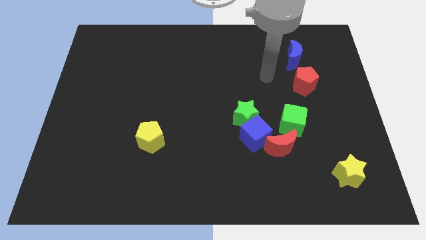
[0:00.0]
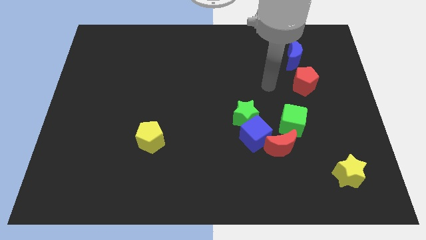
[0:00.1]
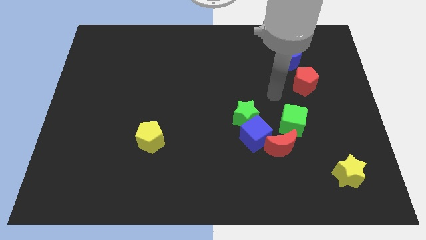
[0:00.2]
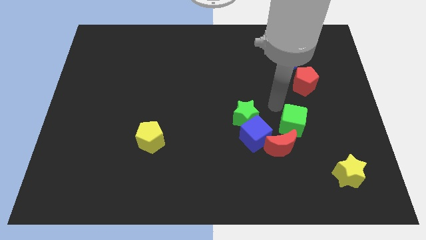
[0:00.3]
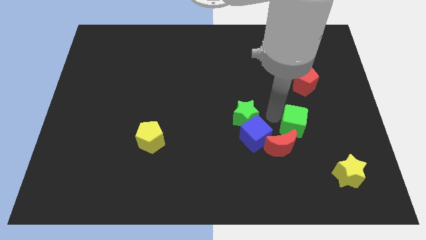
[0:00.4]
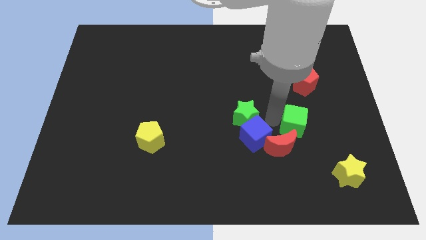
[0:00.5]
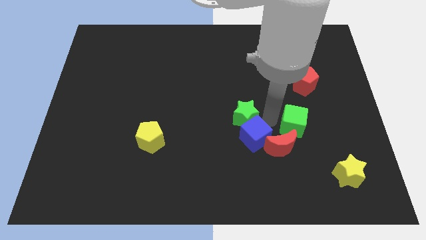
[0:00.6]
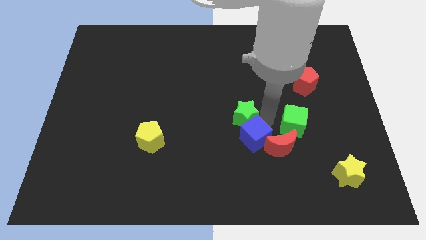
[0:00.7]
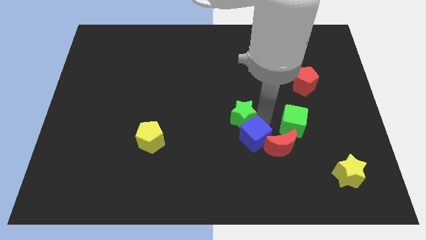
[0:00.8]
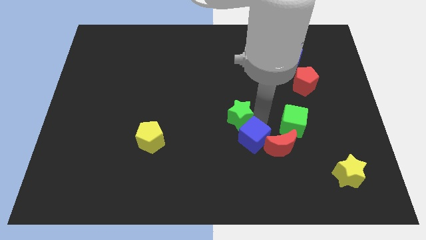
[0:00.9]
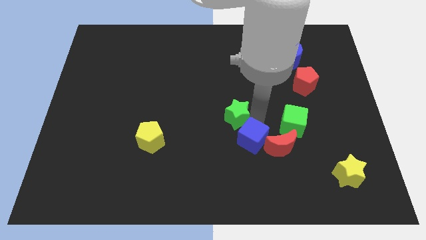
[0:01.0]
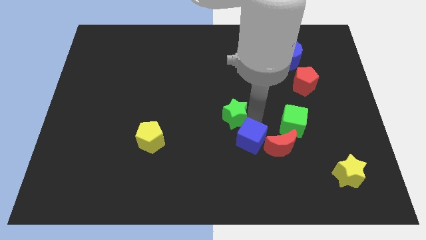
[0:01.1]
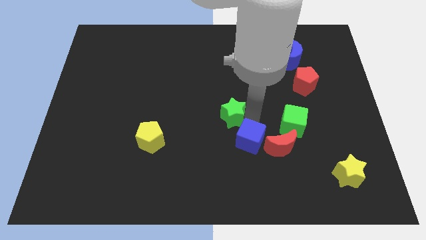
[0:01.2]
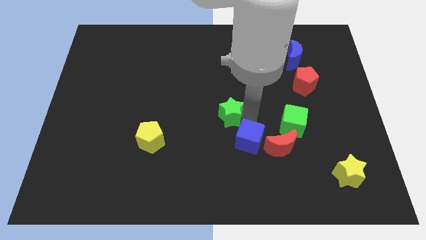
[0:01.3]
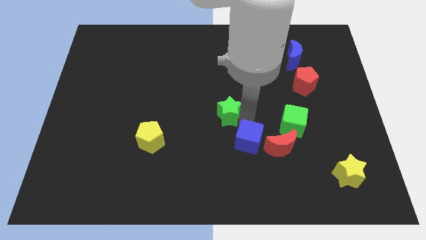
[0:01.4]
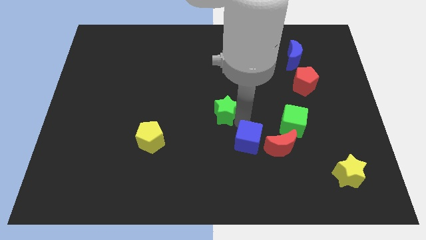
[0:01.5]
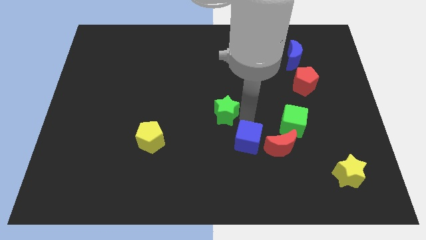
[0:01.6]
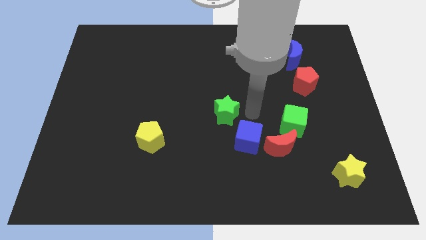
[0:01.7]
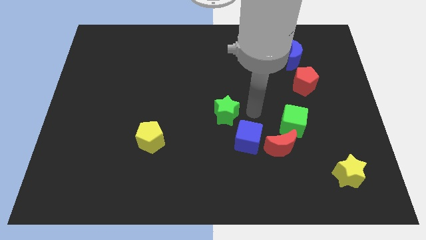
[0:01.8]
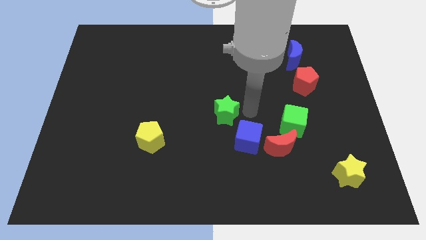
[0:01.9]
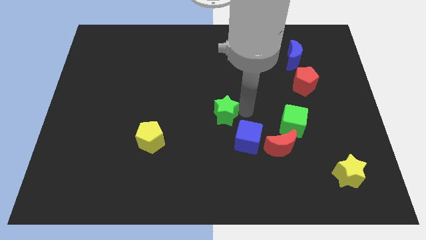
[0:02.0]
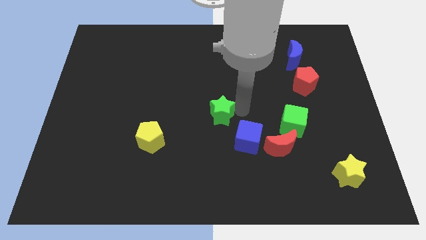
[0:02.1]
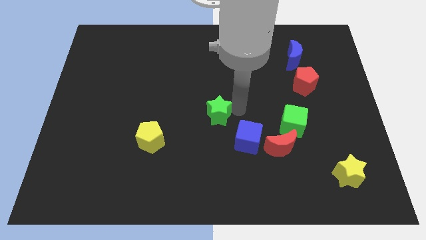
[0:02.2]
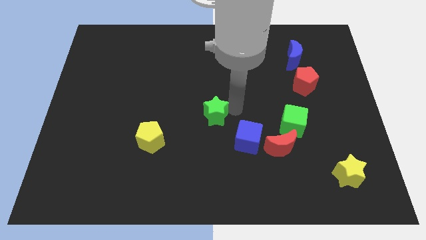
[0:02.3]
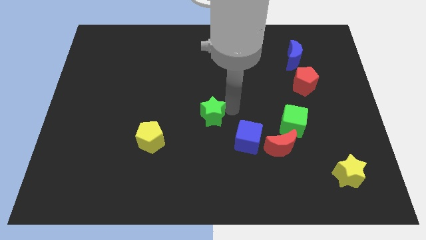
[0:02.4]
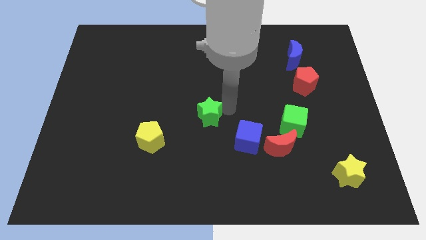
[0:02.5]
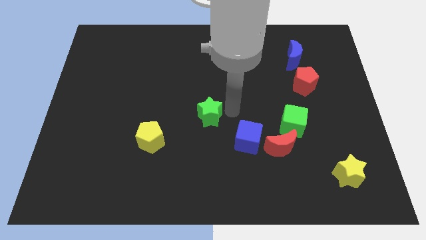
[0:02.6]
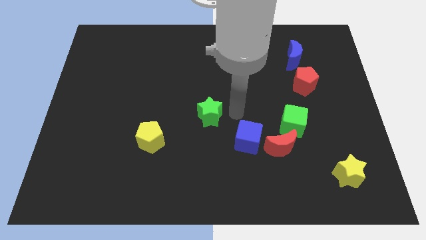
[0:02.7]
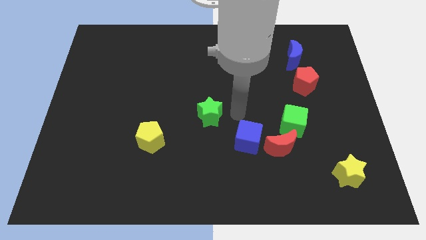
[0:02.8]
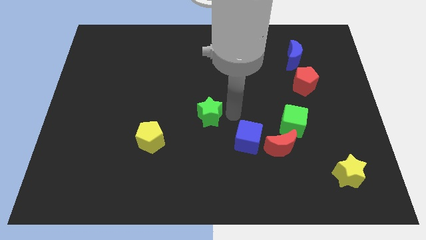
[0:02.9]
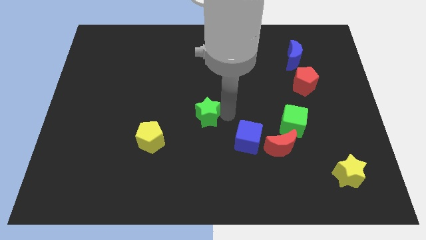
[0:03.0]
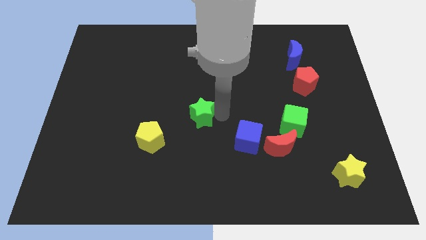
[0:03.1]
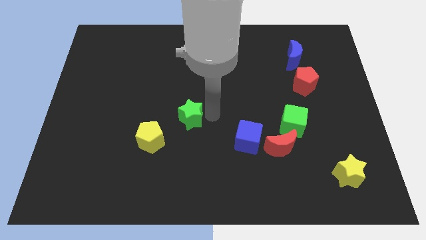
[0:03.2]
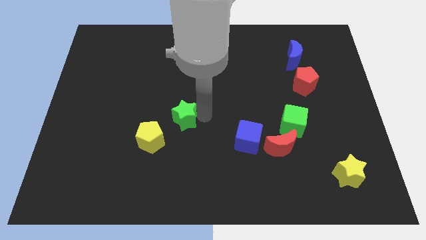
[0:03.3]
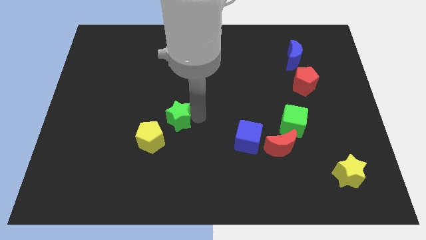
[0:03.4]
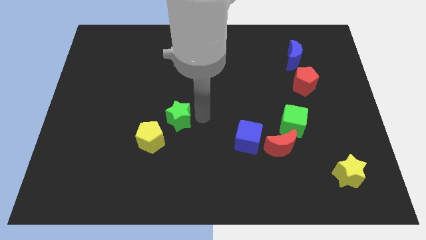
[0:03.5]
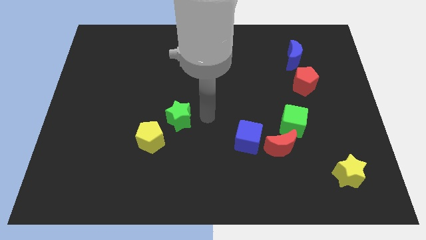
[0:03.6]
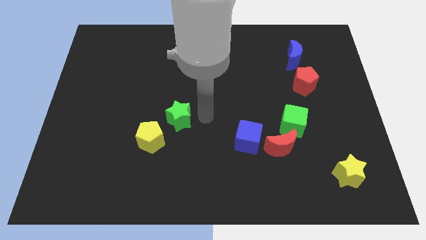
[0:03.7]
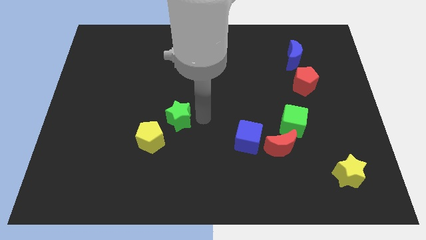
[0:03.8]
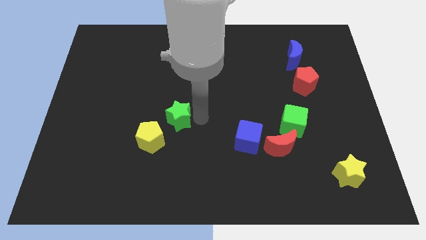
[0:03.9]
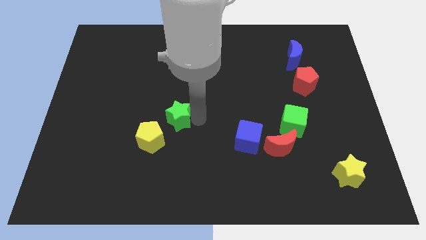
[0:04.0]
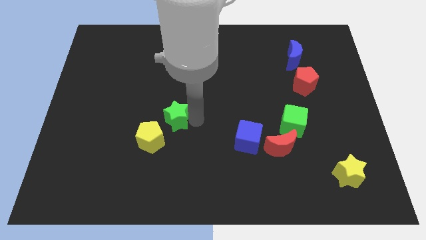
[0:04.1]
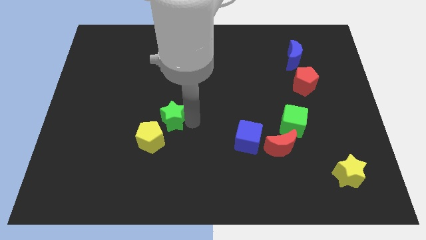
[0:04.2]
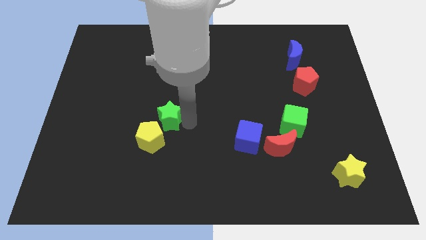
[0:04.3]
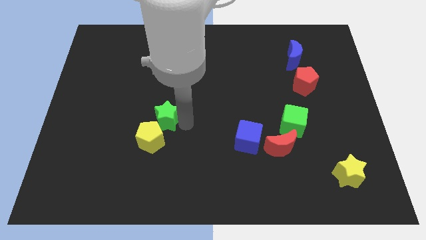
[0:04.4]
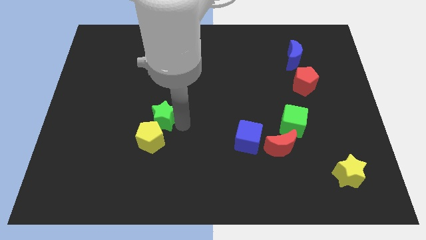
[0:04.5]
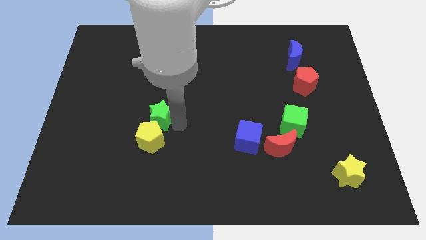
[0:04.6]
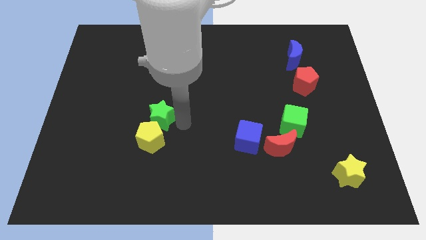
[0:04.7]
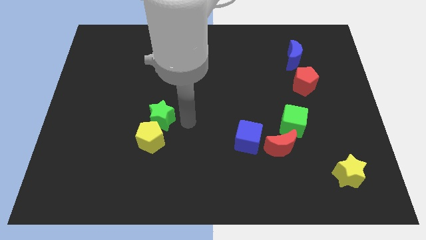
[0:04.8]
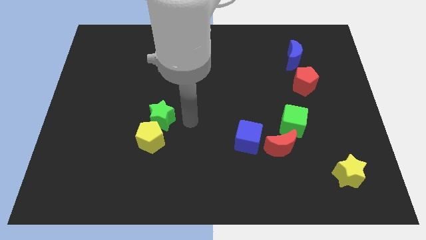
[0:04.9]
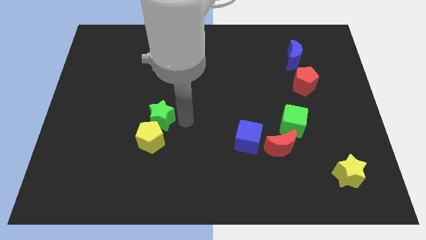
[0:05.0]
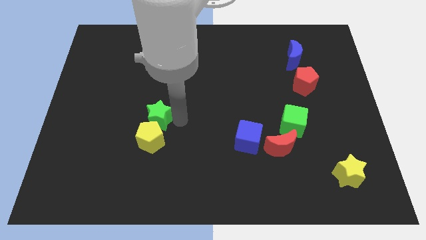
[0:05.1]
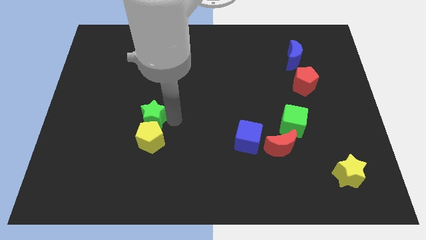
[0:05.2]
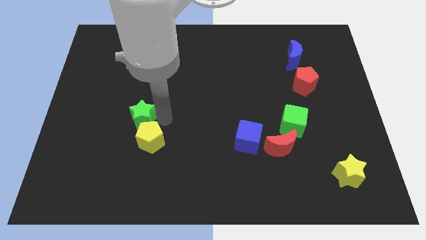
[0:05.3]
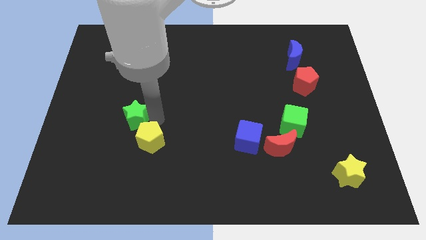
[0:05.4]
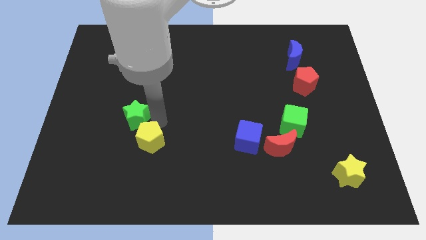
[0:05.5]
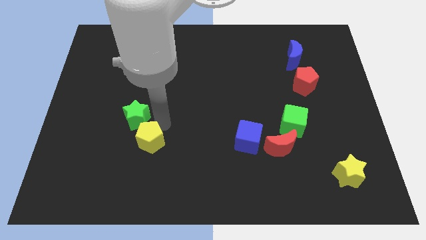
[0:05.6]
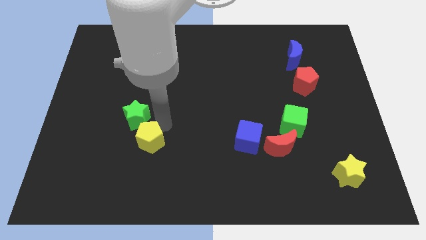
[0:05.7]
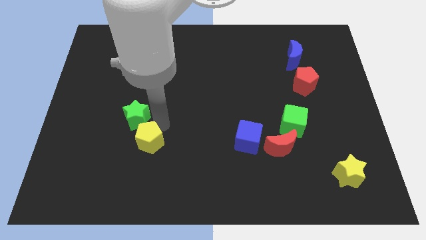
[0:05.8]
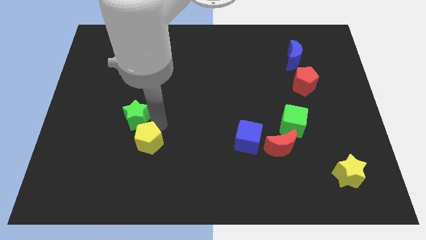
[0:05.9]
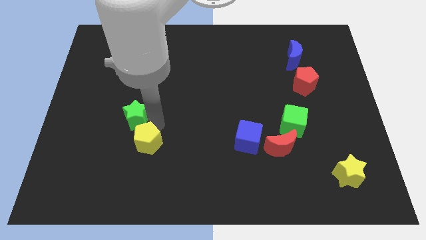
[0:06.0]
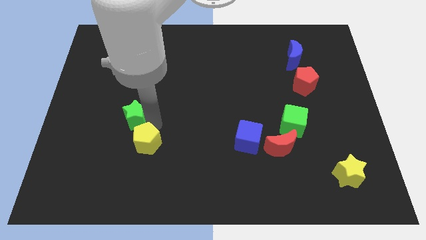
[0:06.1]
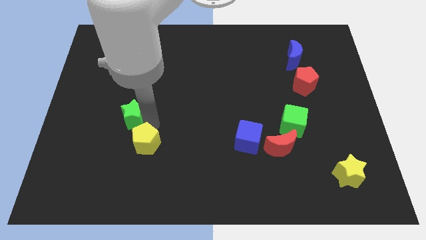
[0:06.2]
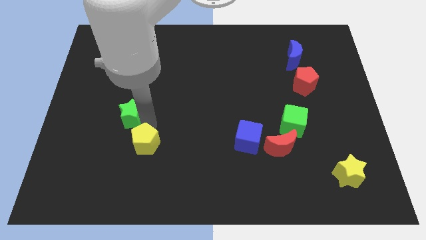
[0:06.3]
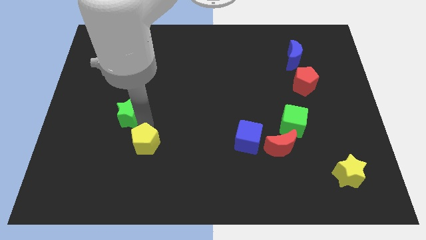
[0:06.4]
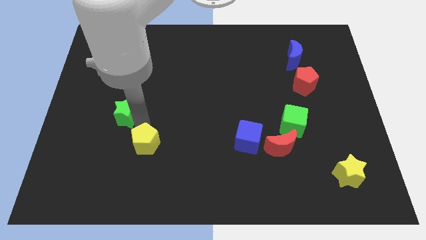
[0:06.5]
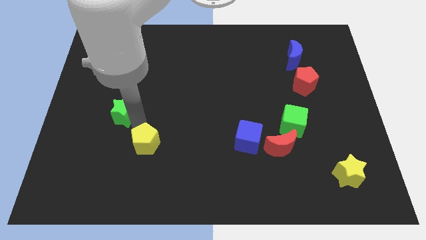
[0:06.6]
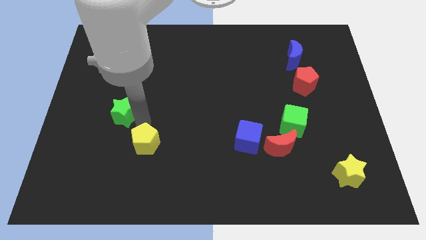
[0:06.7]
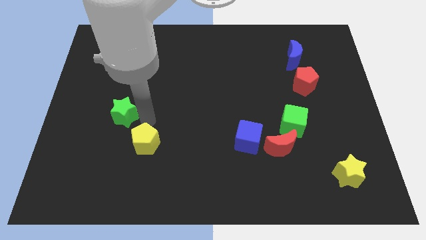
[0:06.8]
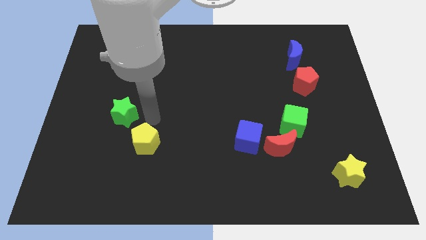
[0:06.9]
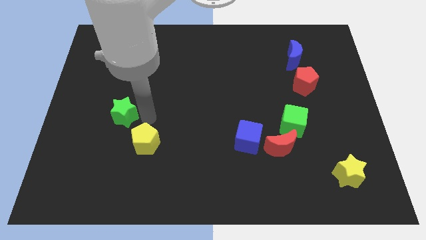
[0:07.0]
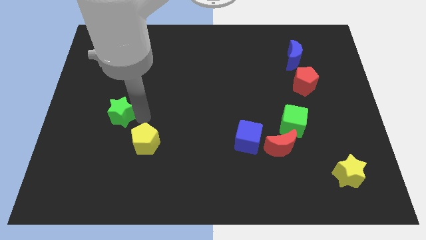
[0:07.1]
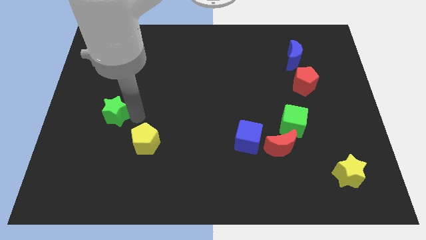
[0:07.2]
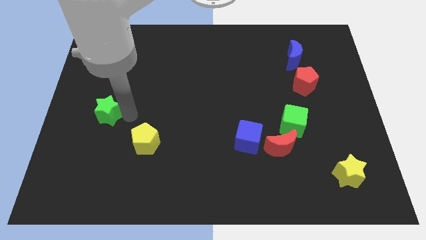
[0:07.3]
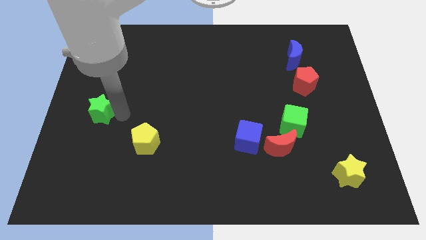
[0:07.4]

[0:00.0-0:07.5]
put the green star to the center left
